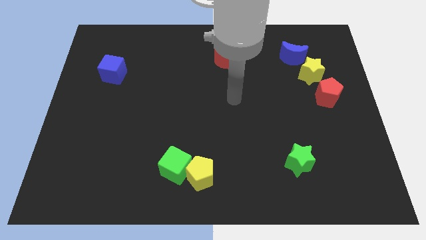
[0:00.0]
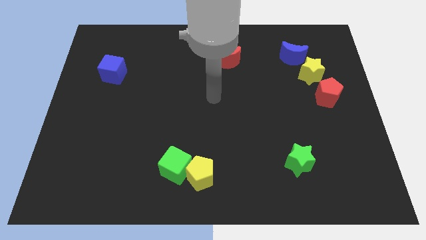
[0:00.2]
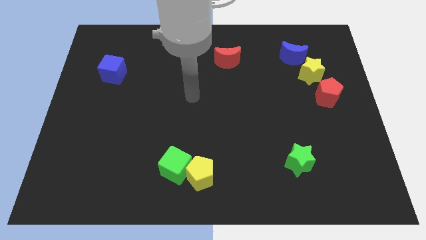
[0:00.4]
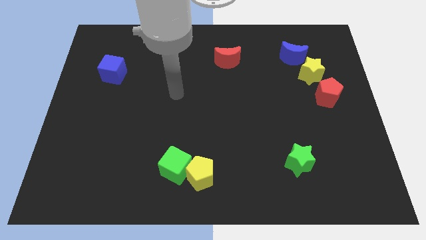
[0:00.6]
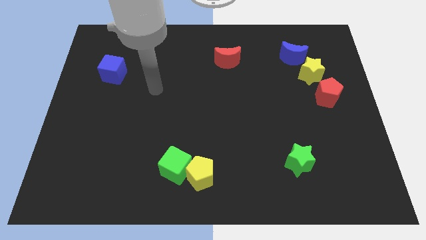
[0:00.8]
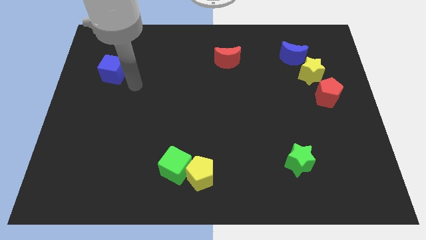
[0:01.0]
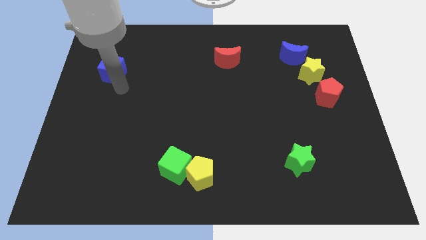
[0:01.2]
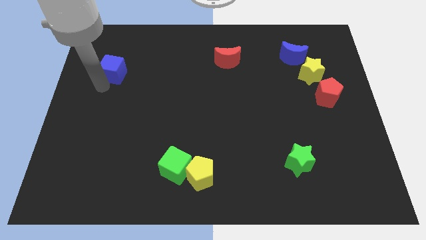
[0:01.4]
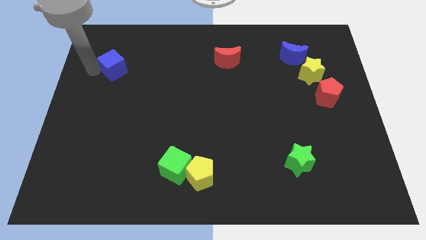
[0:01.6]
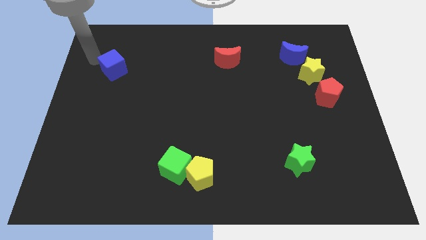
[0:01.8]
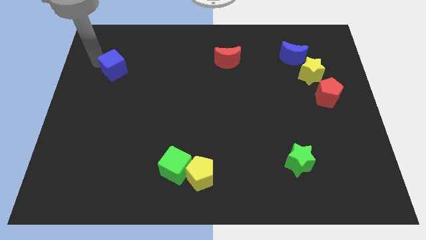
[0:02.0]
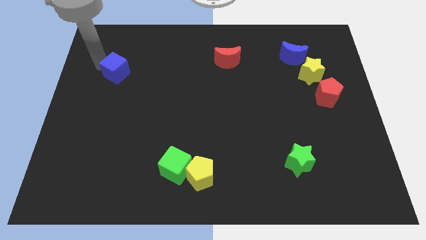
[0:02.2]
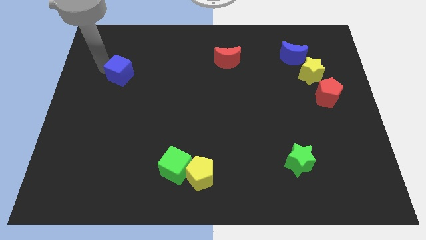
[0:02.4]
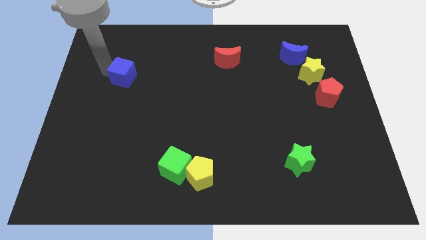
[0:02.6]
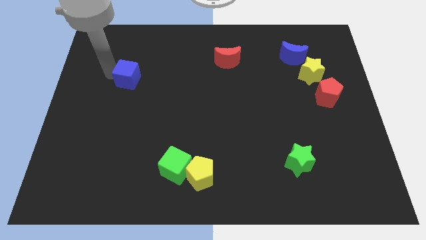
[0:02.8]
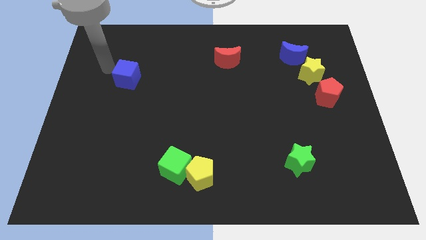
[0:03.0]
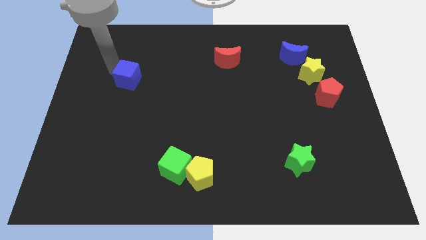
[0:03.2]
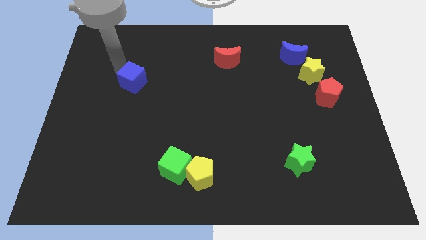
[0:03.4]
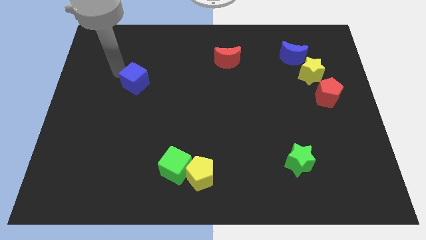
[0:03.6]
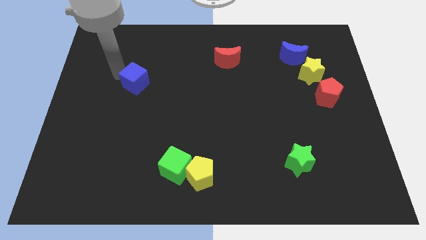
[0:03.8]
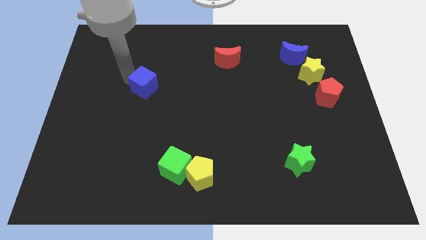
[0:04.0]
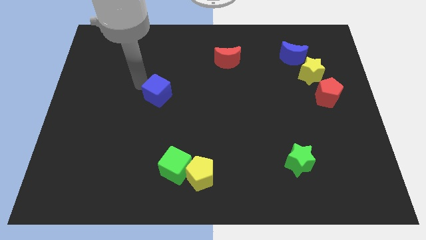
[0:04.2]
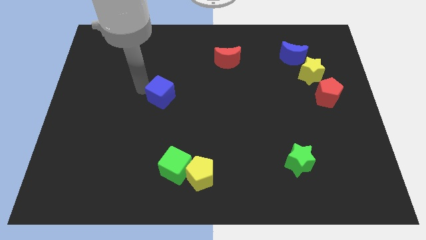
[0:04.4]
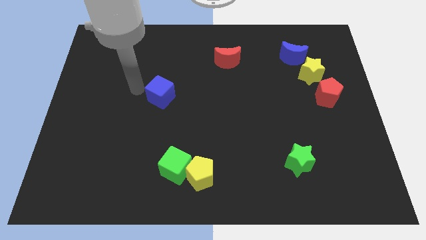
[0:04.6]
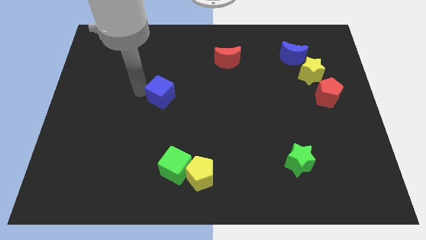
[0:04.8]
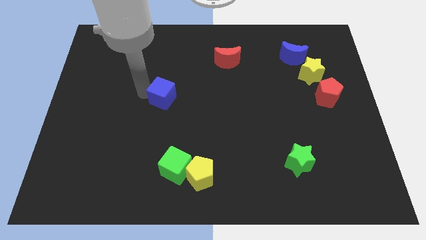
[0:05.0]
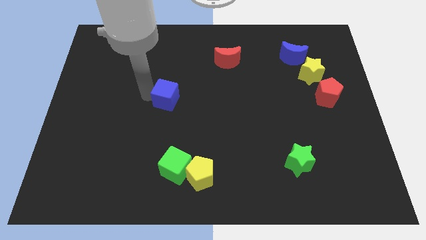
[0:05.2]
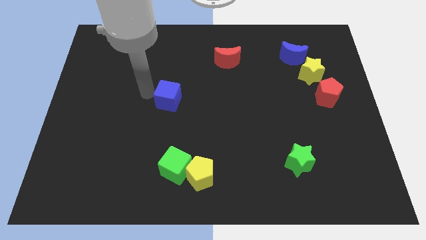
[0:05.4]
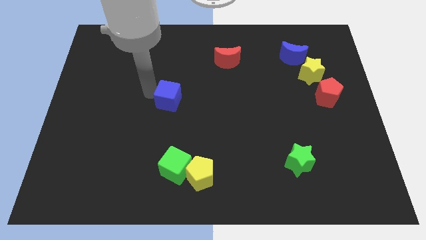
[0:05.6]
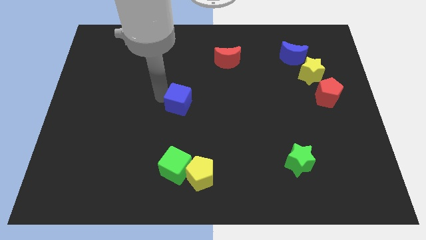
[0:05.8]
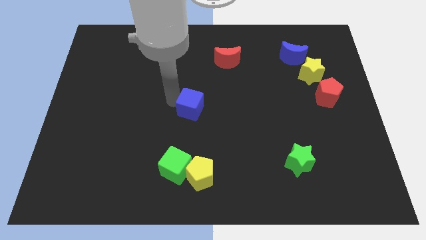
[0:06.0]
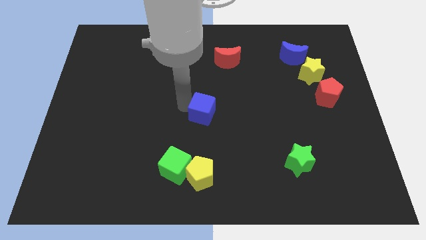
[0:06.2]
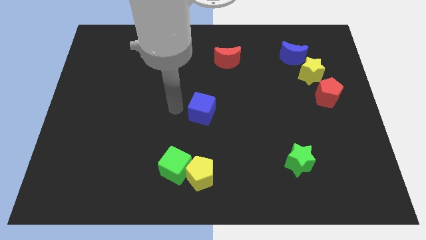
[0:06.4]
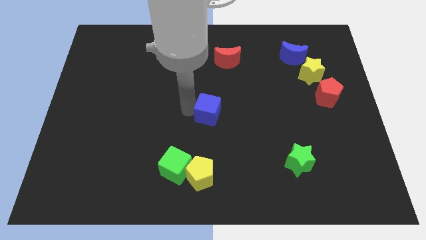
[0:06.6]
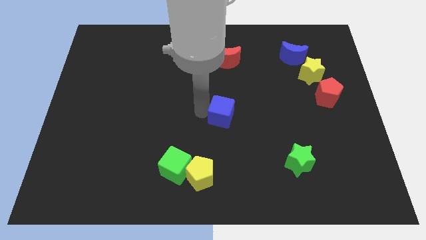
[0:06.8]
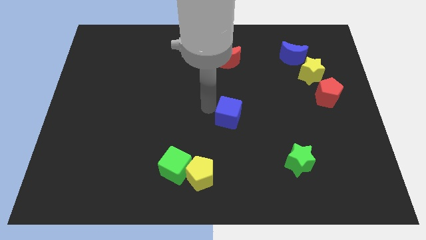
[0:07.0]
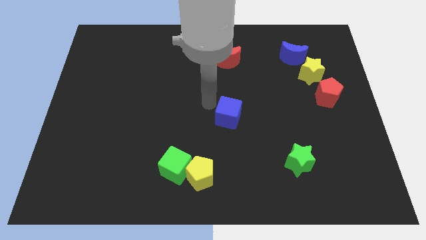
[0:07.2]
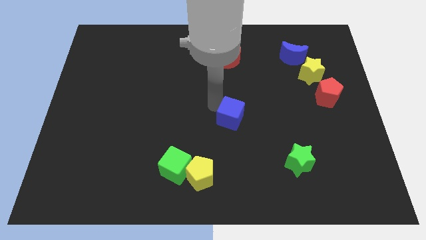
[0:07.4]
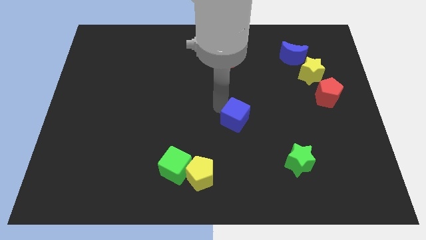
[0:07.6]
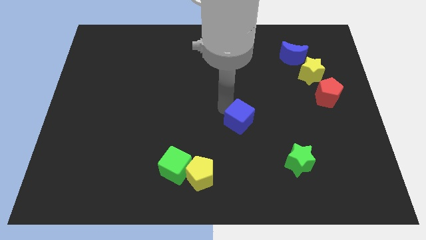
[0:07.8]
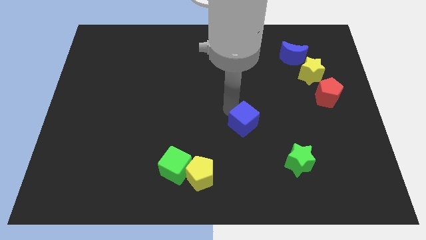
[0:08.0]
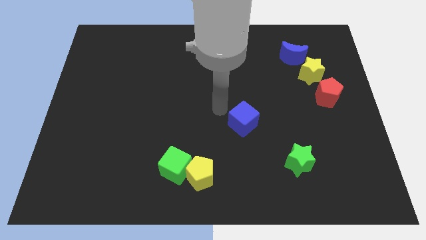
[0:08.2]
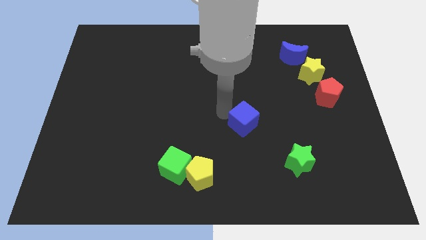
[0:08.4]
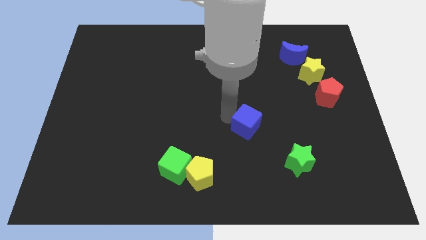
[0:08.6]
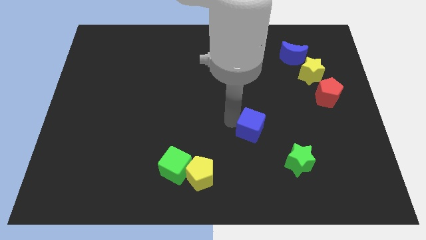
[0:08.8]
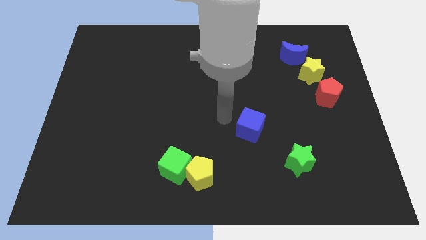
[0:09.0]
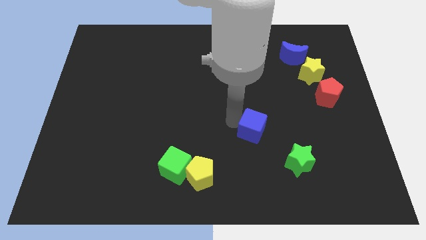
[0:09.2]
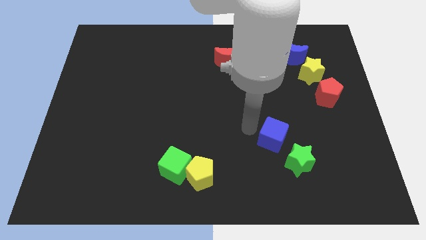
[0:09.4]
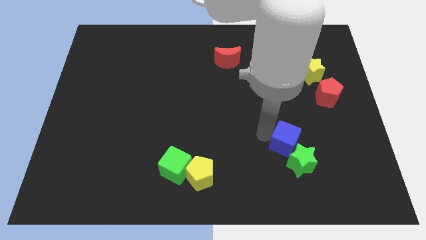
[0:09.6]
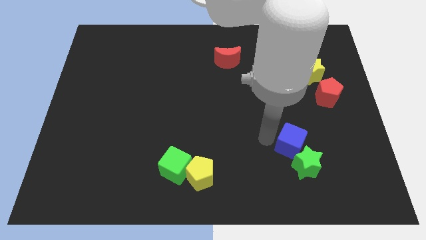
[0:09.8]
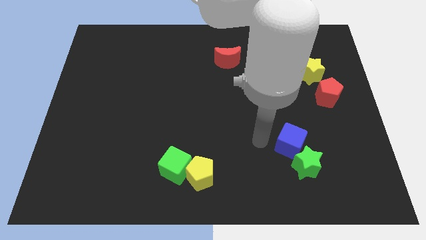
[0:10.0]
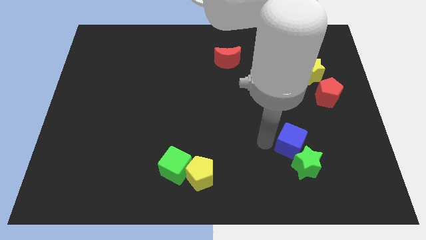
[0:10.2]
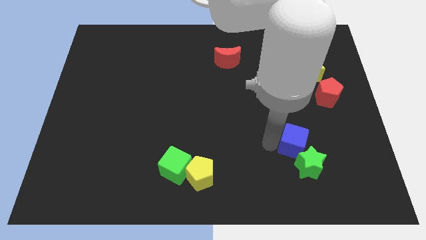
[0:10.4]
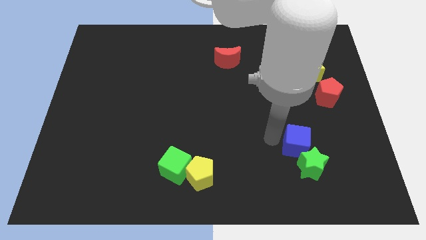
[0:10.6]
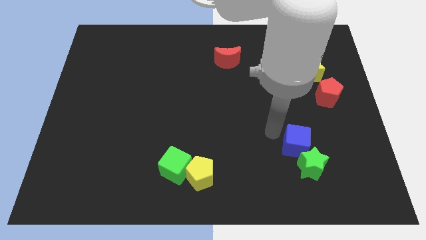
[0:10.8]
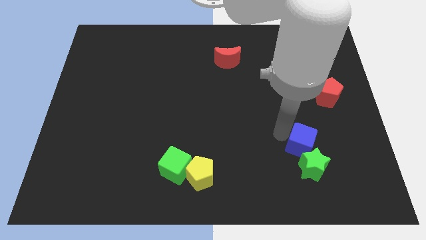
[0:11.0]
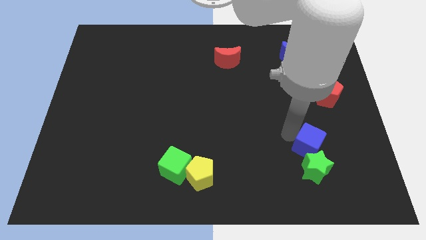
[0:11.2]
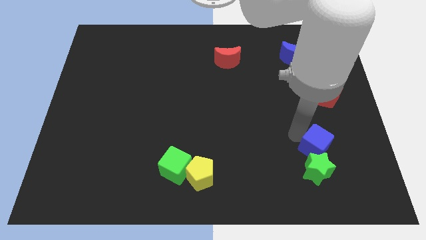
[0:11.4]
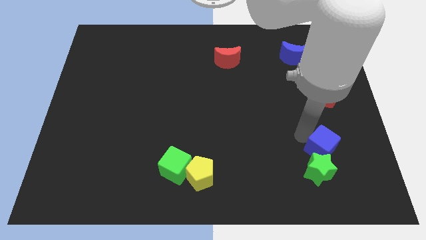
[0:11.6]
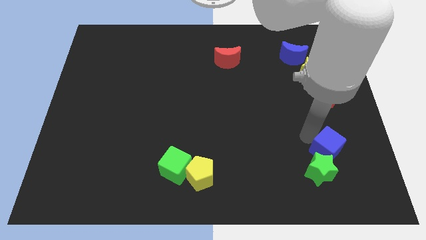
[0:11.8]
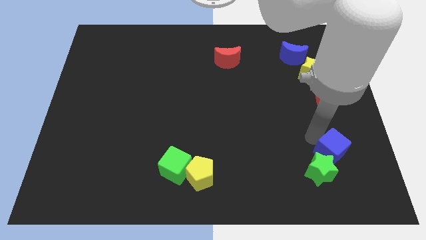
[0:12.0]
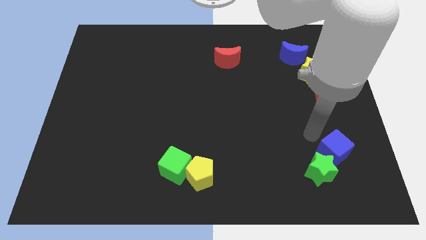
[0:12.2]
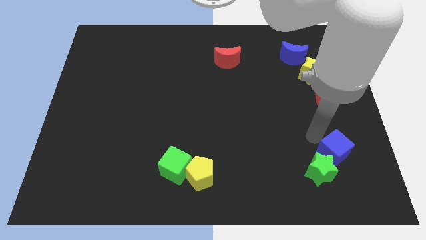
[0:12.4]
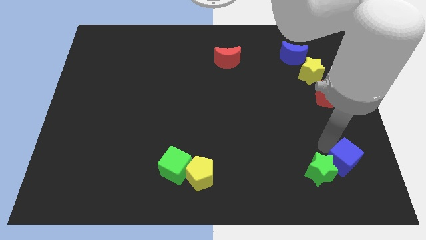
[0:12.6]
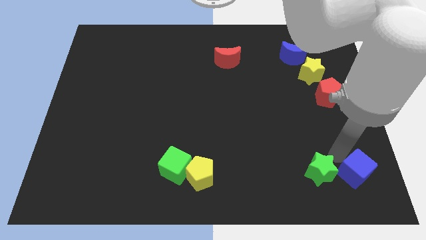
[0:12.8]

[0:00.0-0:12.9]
slide the blue cube to the bottom right
